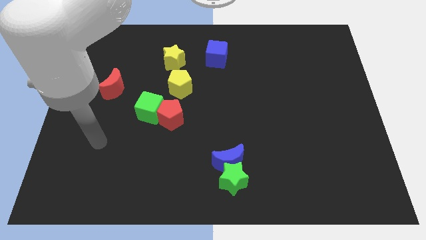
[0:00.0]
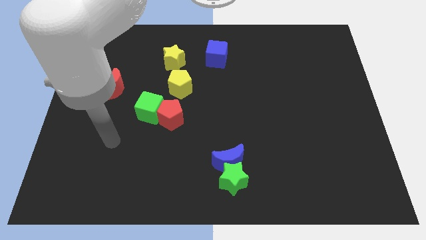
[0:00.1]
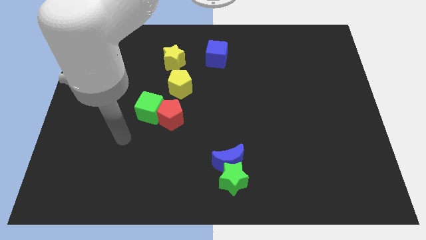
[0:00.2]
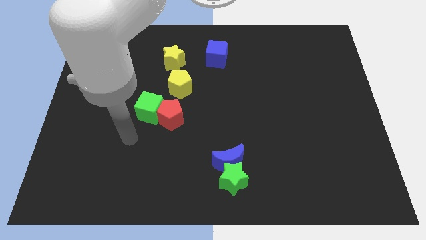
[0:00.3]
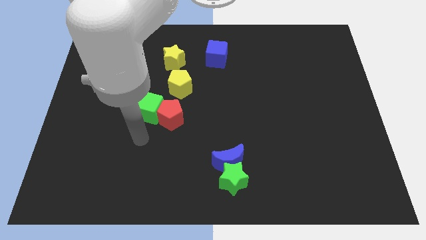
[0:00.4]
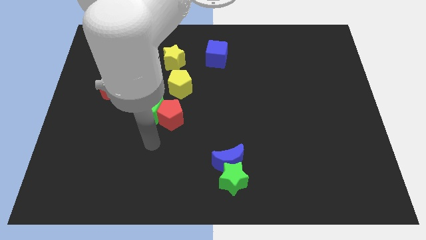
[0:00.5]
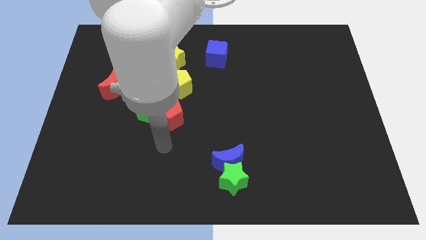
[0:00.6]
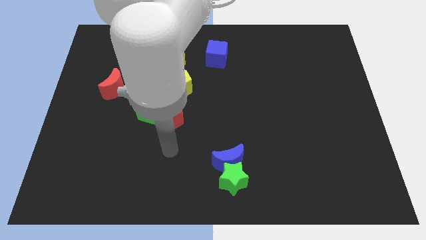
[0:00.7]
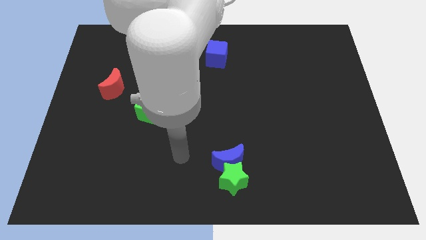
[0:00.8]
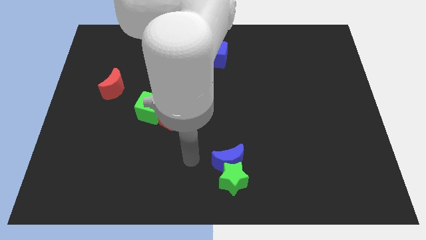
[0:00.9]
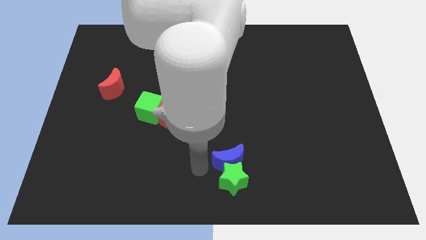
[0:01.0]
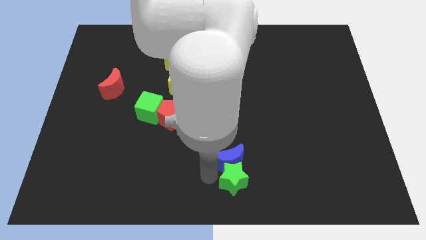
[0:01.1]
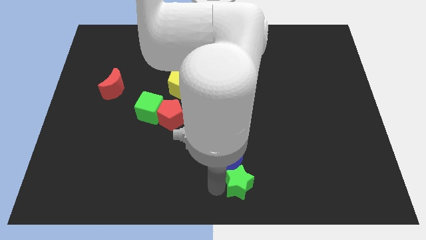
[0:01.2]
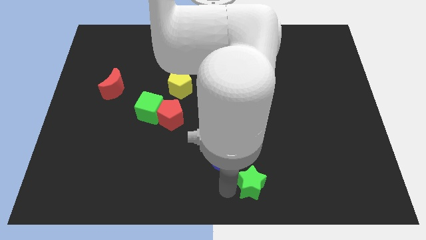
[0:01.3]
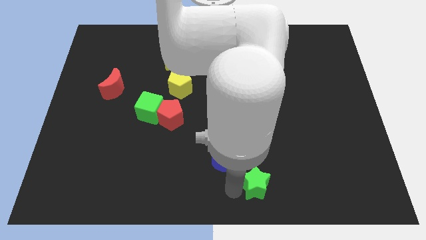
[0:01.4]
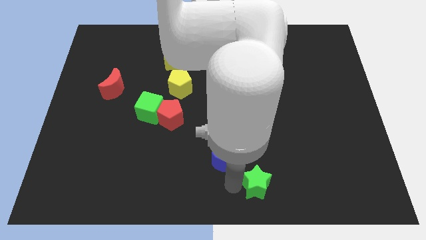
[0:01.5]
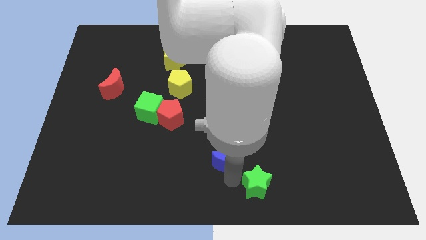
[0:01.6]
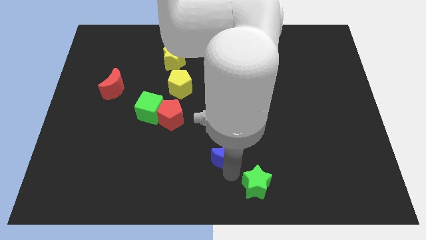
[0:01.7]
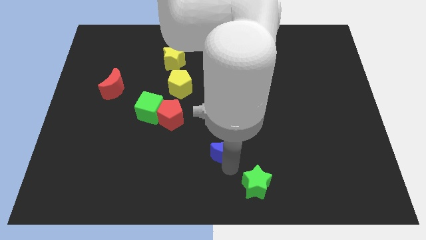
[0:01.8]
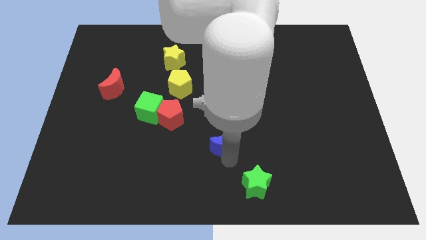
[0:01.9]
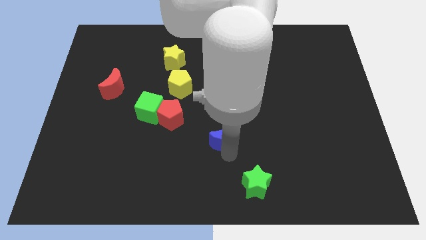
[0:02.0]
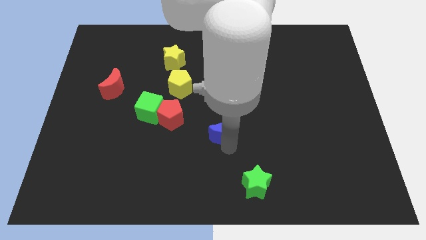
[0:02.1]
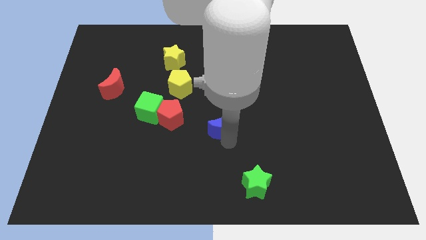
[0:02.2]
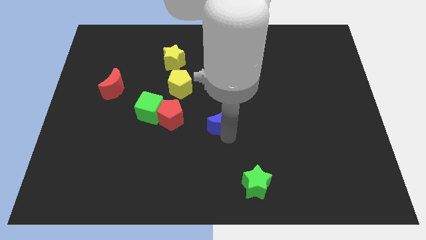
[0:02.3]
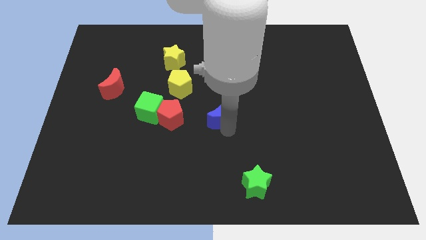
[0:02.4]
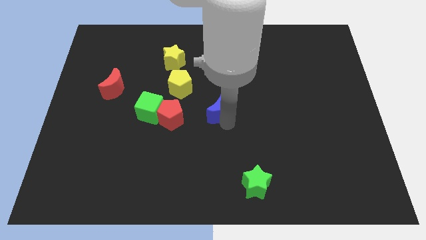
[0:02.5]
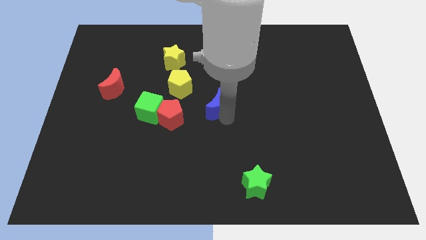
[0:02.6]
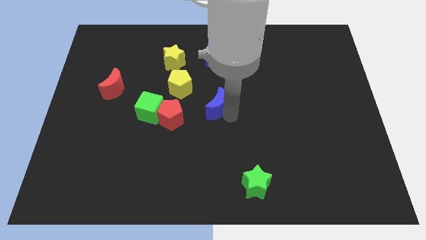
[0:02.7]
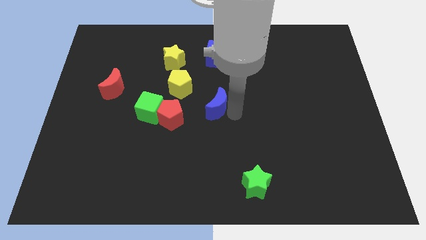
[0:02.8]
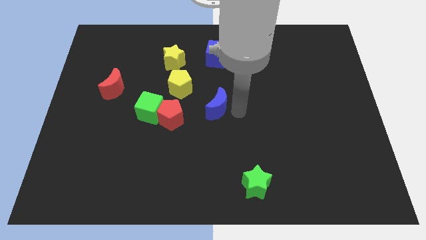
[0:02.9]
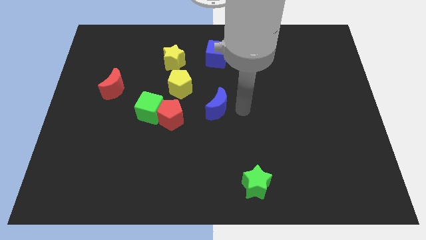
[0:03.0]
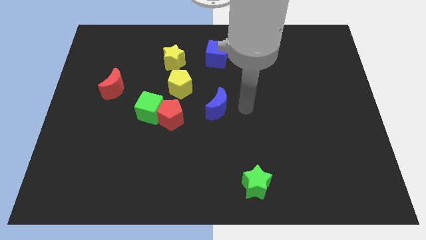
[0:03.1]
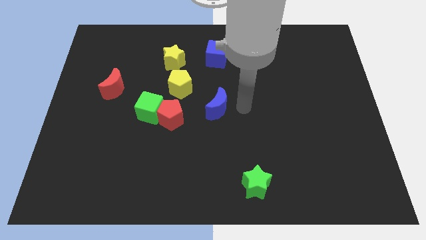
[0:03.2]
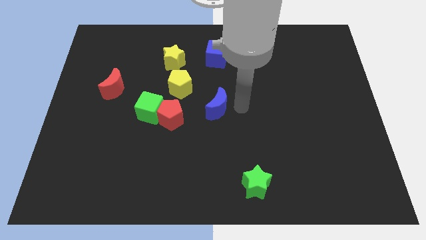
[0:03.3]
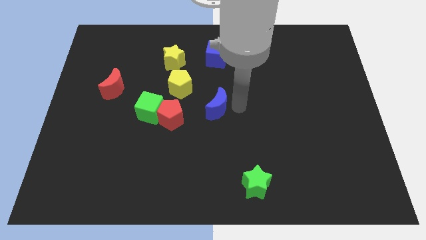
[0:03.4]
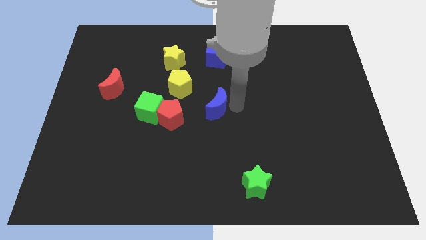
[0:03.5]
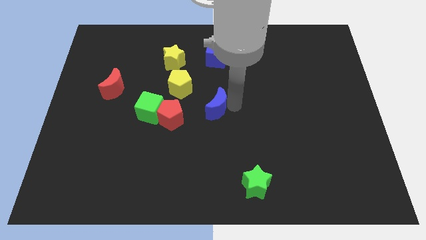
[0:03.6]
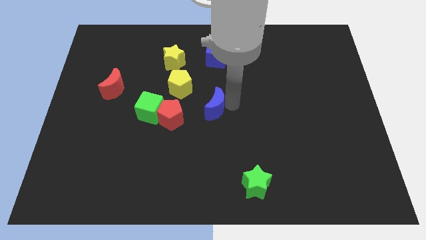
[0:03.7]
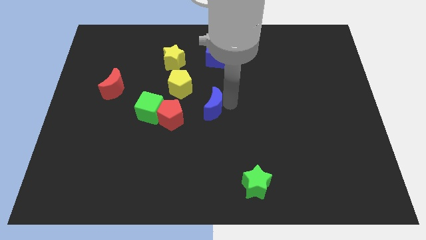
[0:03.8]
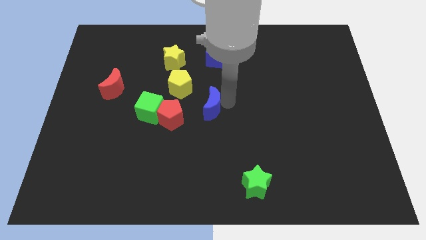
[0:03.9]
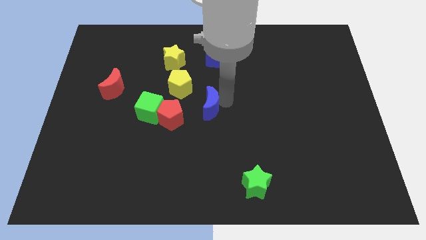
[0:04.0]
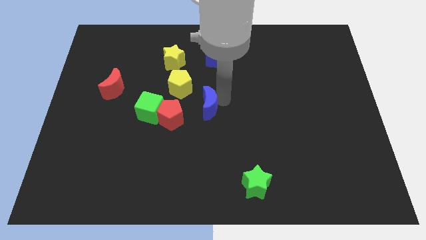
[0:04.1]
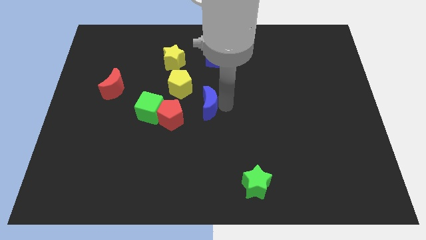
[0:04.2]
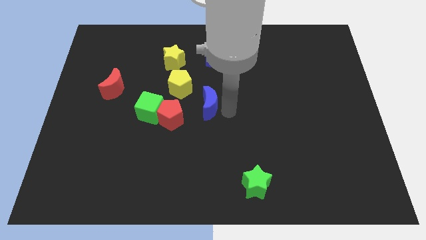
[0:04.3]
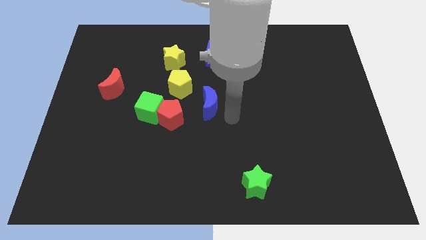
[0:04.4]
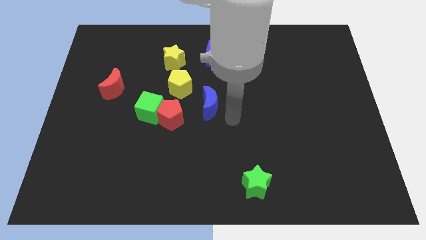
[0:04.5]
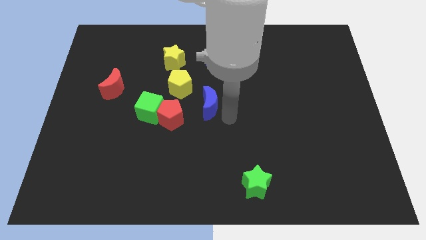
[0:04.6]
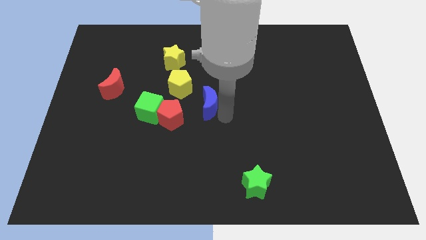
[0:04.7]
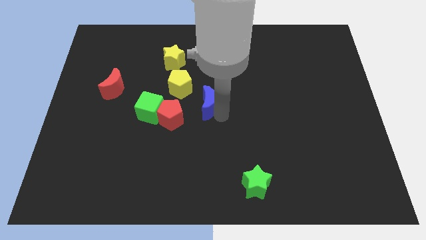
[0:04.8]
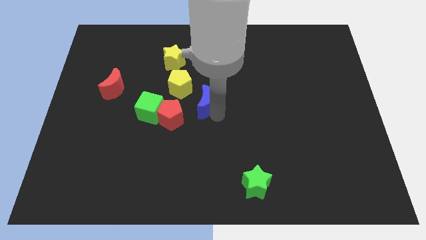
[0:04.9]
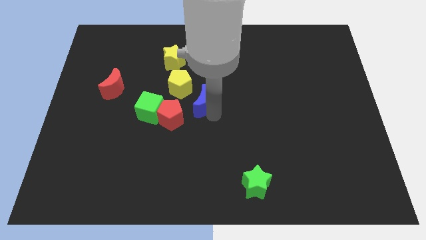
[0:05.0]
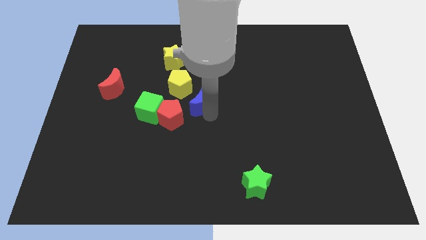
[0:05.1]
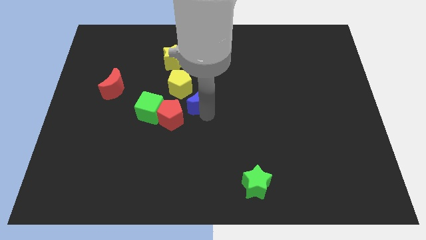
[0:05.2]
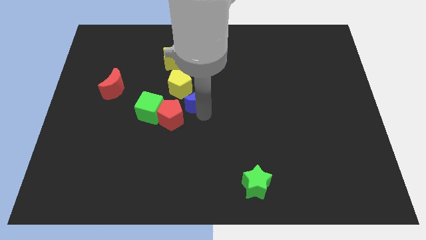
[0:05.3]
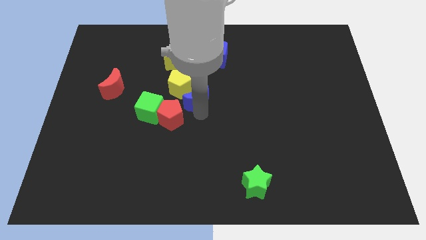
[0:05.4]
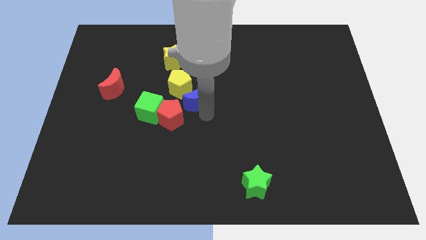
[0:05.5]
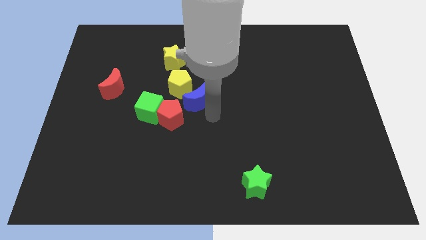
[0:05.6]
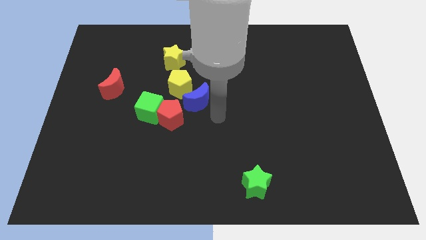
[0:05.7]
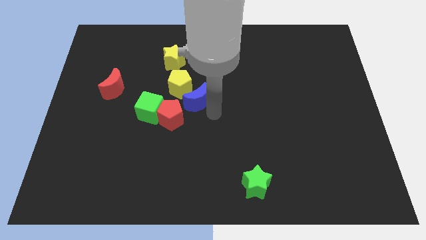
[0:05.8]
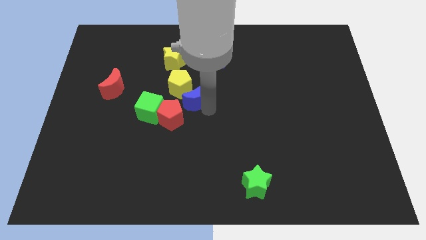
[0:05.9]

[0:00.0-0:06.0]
move the blue moon next to the yellow pentagon

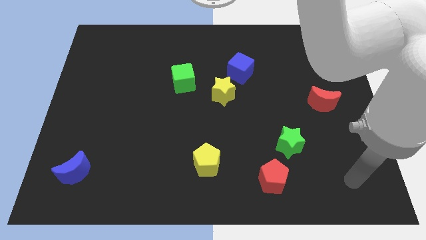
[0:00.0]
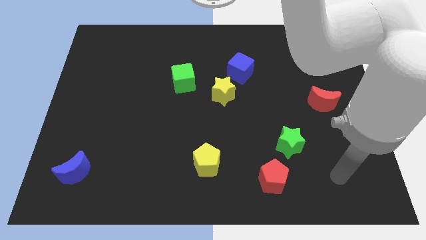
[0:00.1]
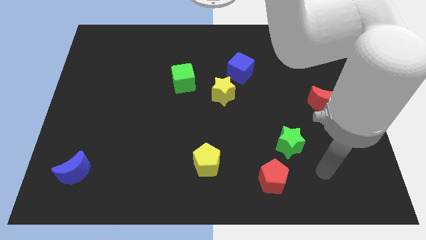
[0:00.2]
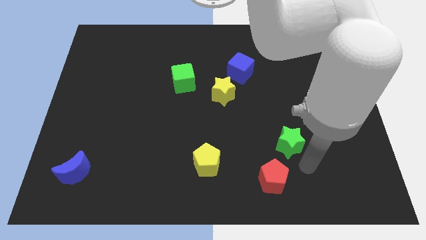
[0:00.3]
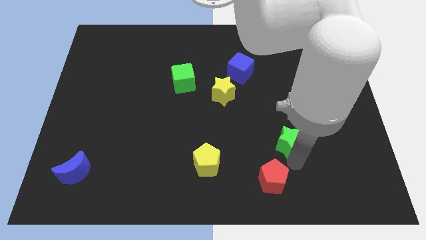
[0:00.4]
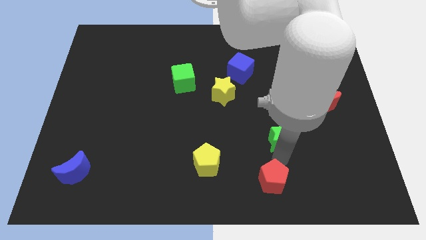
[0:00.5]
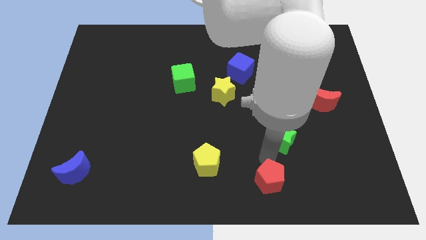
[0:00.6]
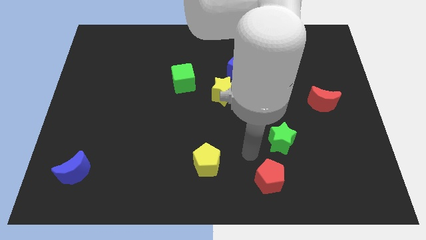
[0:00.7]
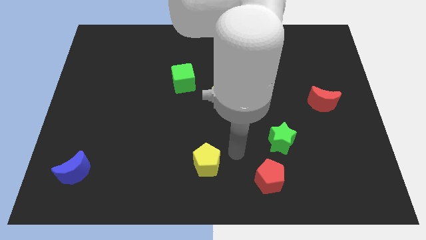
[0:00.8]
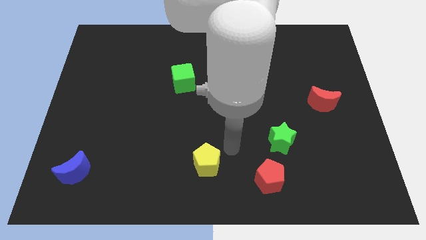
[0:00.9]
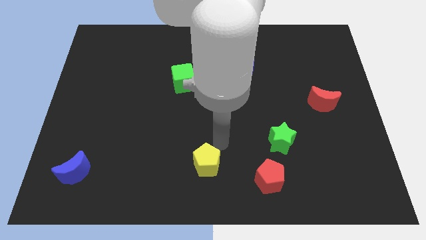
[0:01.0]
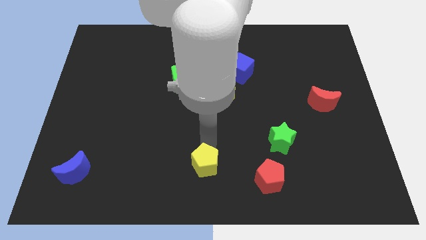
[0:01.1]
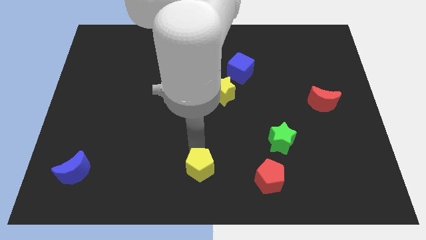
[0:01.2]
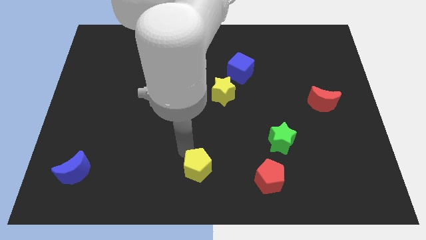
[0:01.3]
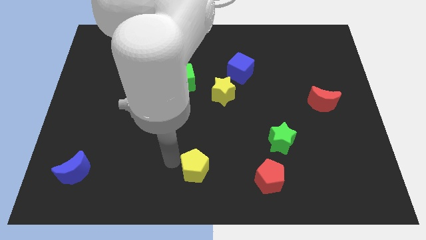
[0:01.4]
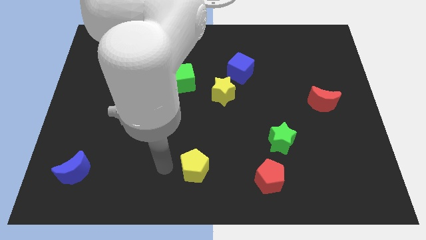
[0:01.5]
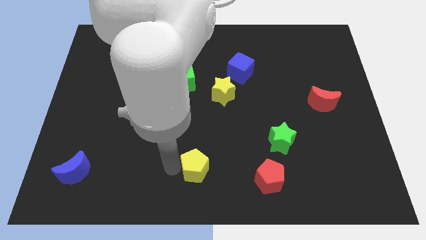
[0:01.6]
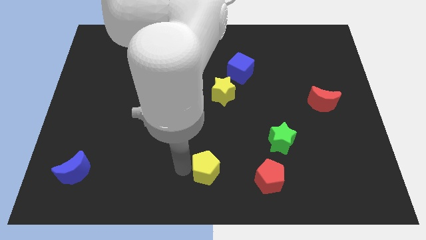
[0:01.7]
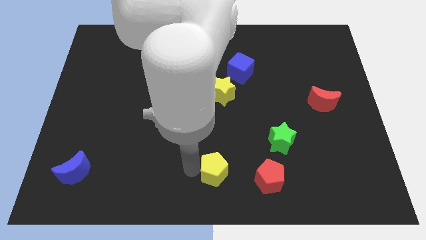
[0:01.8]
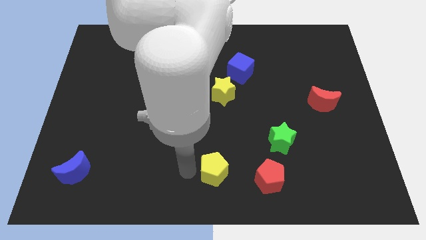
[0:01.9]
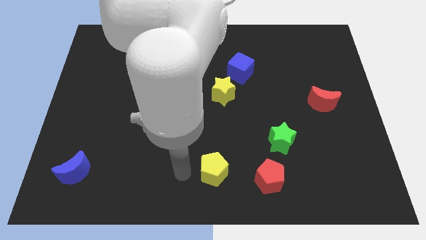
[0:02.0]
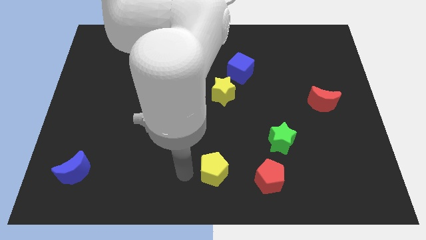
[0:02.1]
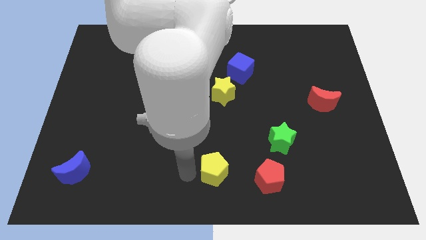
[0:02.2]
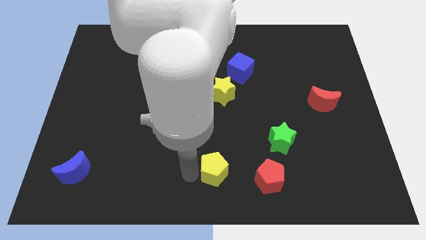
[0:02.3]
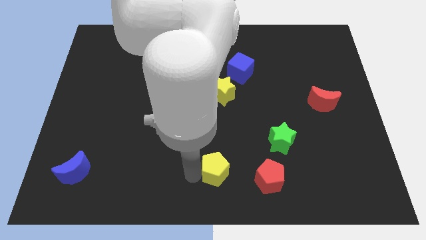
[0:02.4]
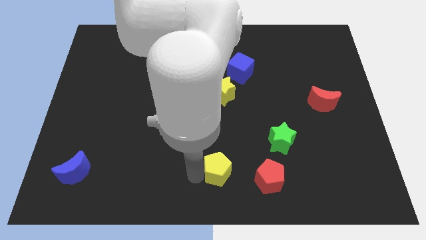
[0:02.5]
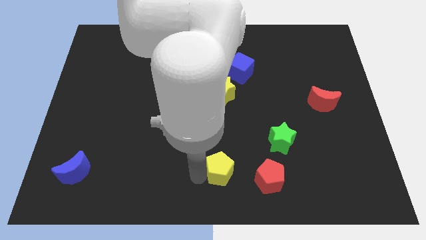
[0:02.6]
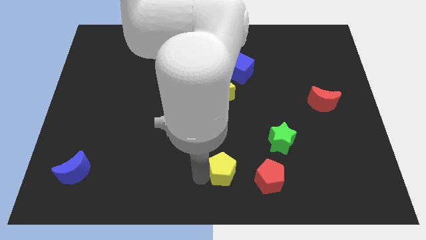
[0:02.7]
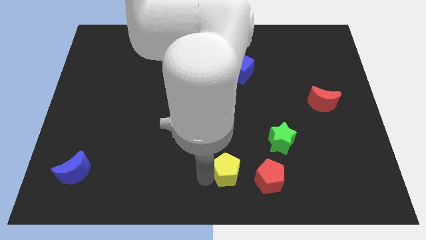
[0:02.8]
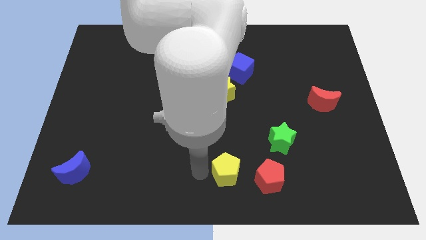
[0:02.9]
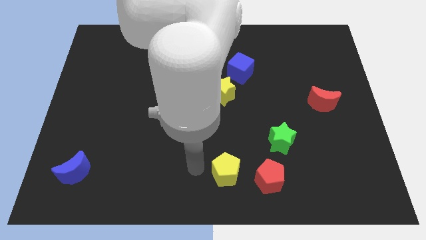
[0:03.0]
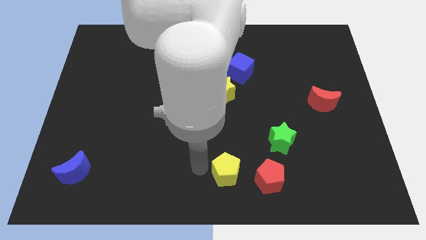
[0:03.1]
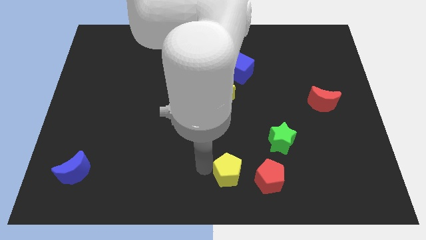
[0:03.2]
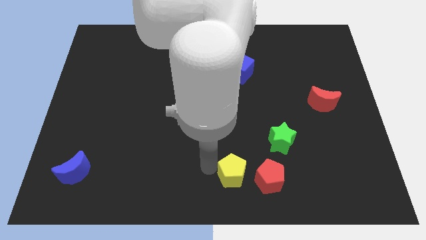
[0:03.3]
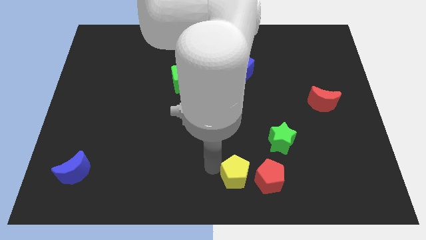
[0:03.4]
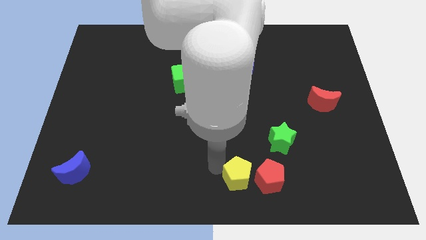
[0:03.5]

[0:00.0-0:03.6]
push the yellow pentagon close to the red pentagon
